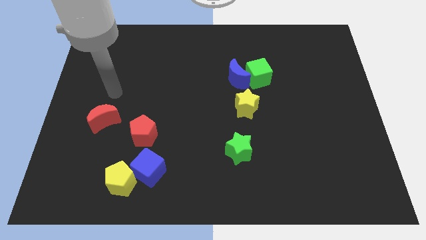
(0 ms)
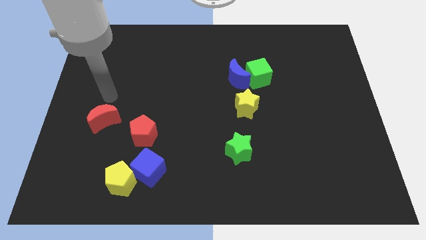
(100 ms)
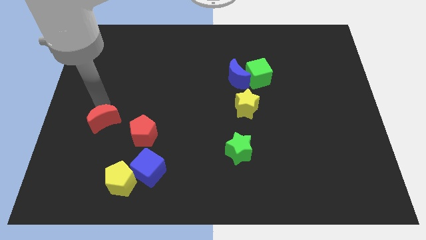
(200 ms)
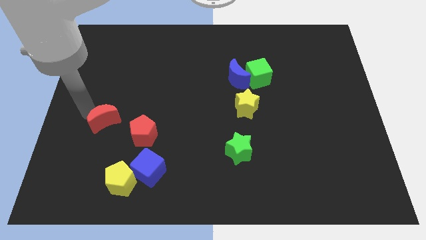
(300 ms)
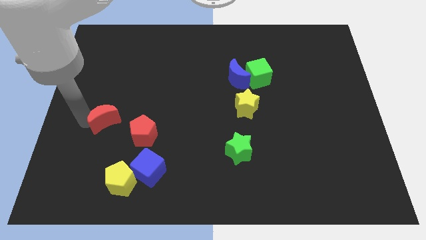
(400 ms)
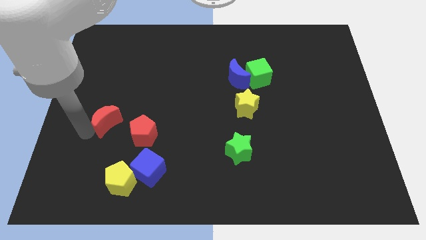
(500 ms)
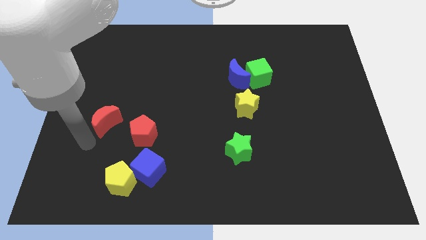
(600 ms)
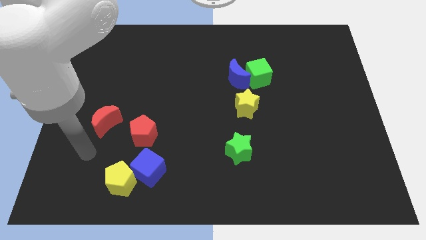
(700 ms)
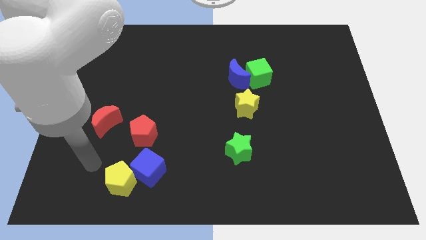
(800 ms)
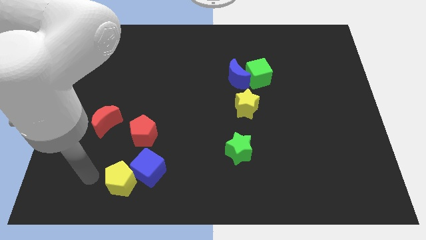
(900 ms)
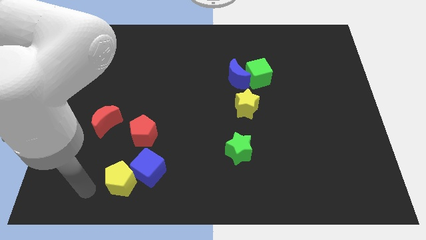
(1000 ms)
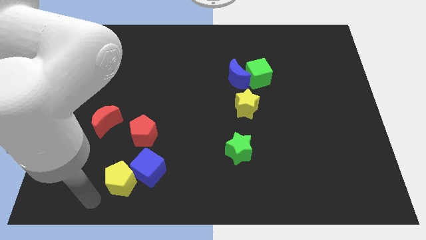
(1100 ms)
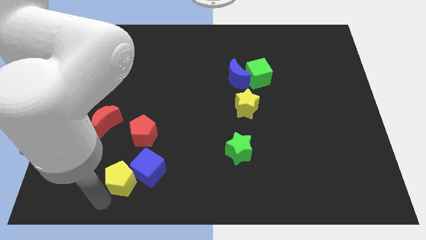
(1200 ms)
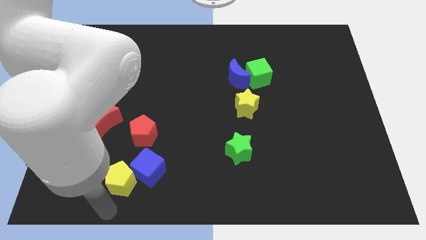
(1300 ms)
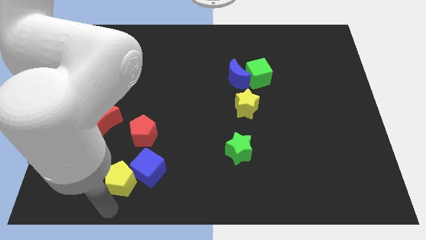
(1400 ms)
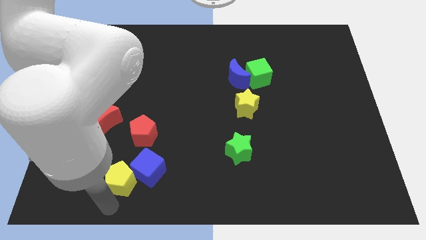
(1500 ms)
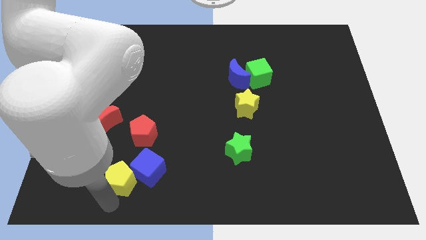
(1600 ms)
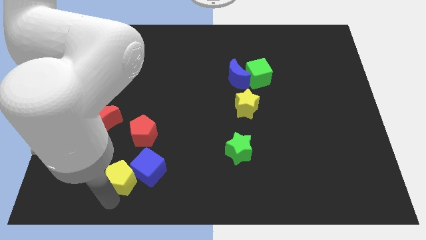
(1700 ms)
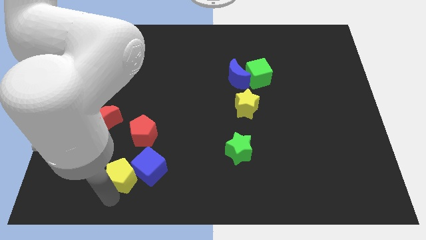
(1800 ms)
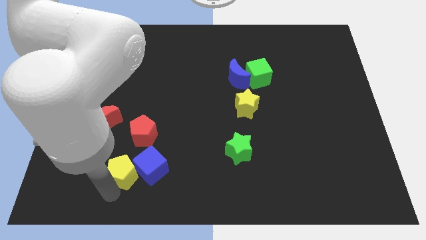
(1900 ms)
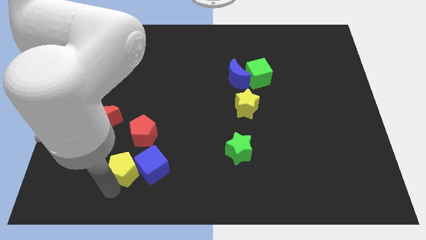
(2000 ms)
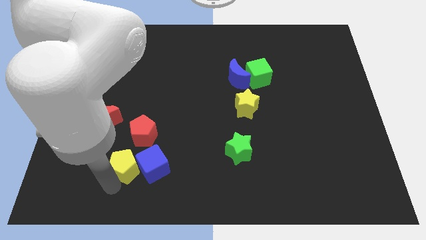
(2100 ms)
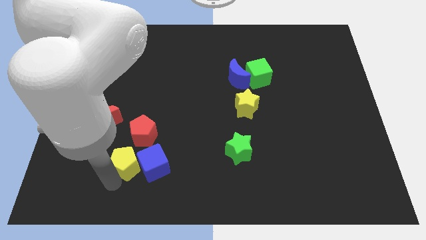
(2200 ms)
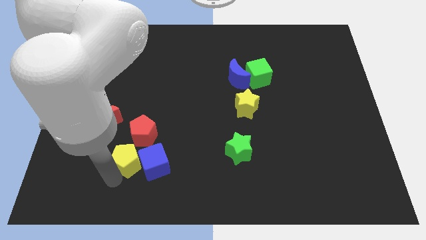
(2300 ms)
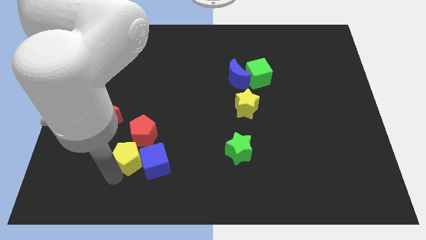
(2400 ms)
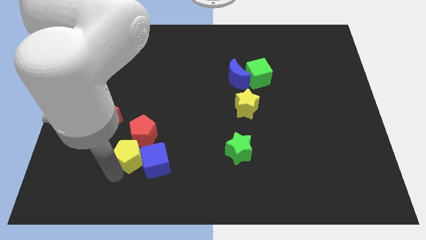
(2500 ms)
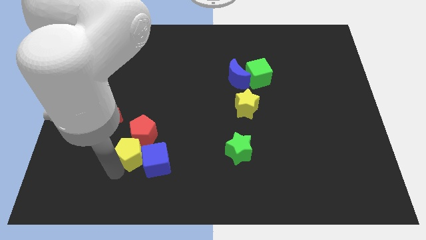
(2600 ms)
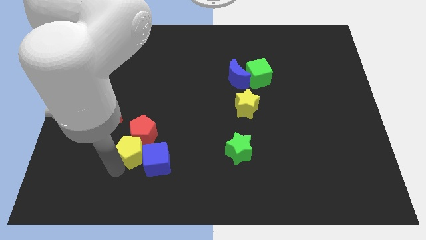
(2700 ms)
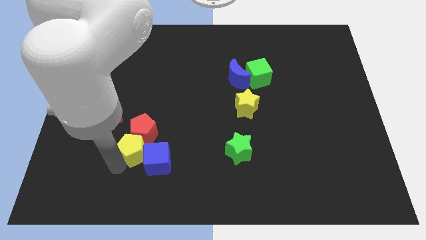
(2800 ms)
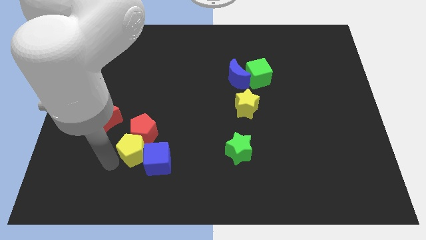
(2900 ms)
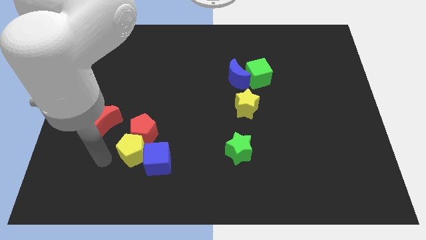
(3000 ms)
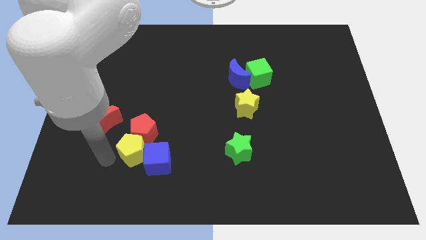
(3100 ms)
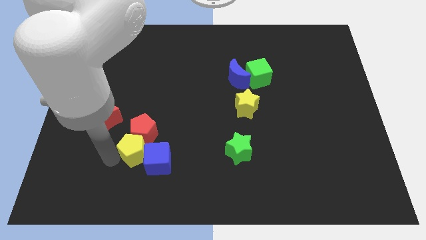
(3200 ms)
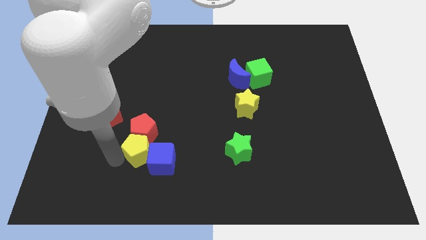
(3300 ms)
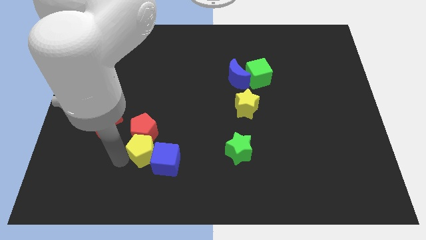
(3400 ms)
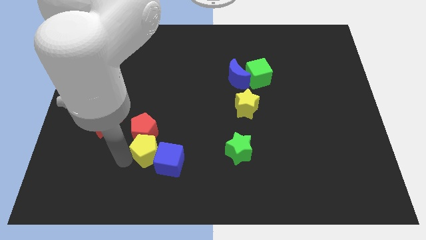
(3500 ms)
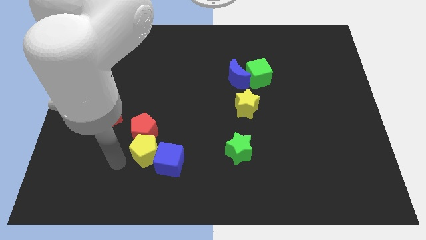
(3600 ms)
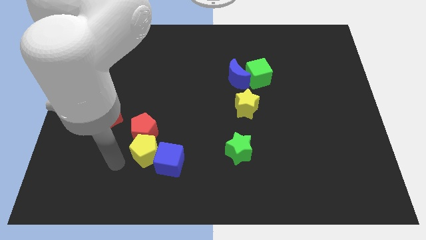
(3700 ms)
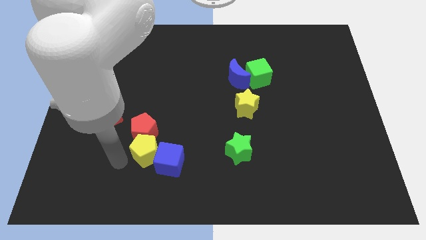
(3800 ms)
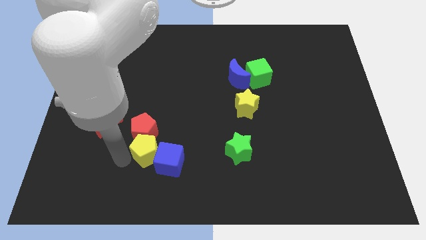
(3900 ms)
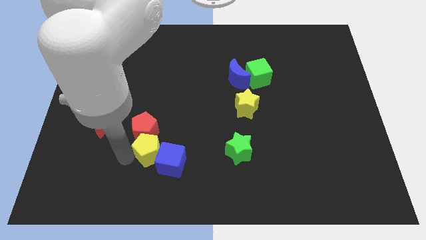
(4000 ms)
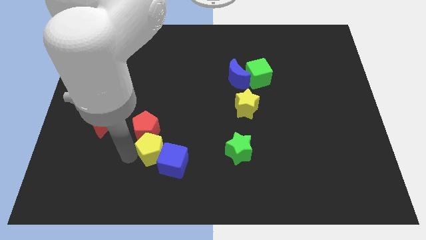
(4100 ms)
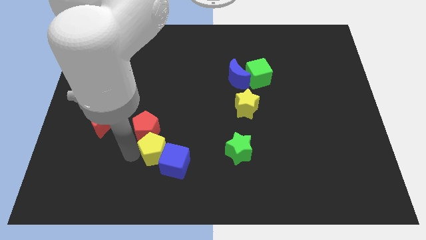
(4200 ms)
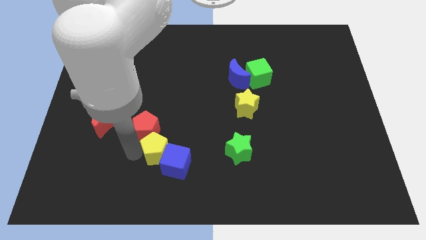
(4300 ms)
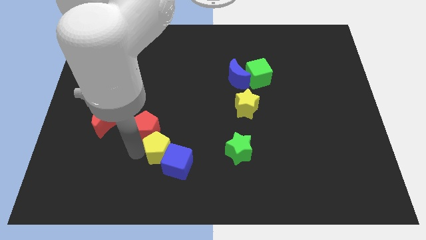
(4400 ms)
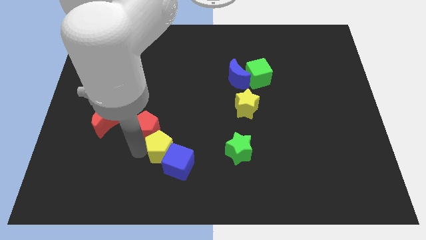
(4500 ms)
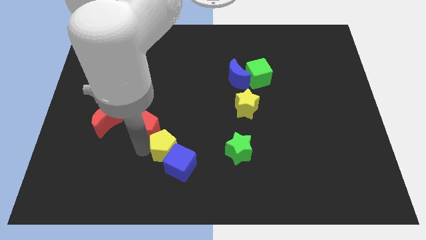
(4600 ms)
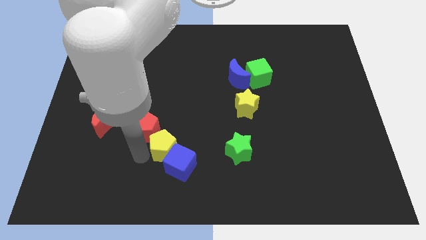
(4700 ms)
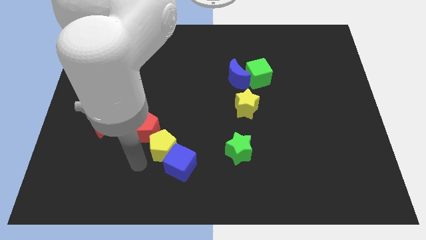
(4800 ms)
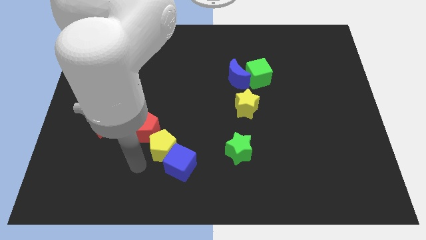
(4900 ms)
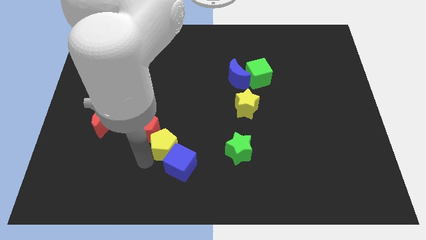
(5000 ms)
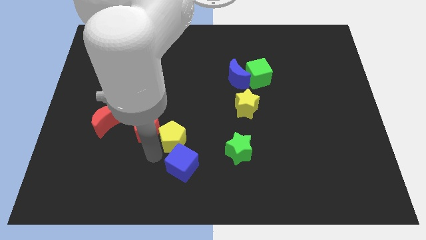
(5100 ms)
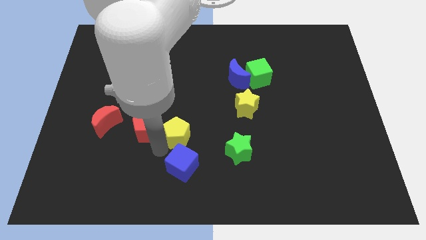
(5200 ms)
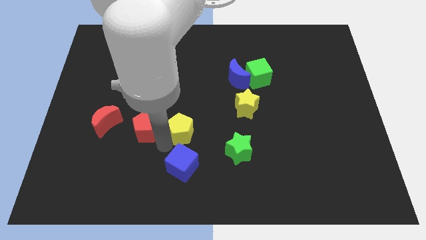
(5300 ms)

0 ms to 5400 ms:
push the yellow pentagon to the middle of the board

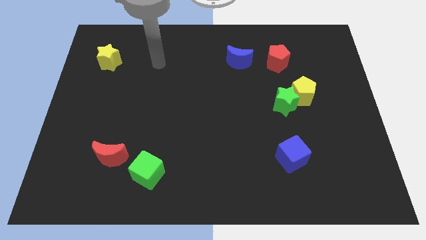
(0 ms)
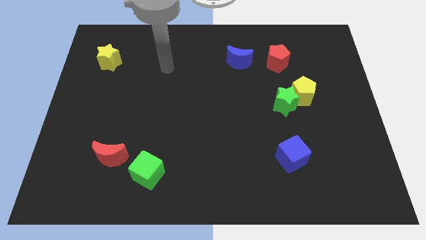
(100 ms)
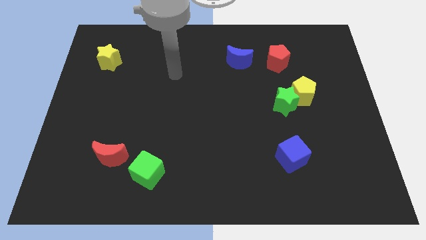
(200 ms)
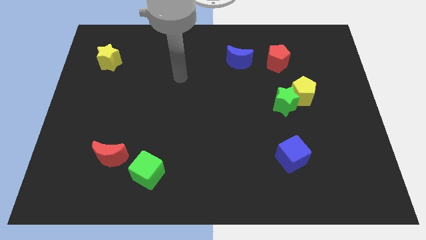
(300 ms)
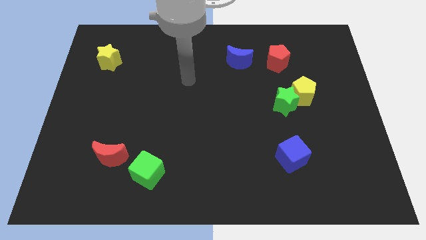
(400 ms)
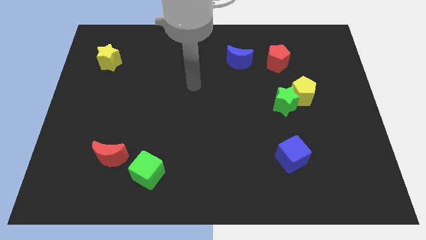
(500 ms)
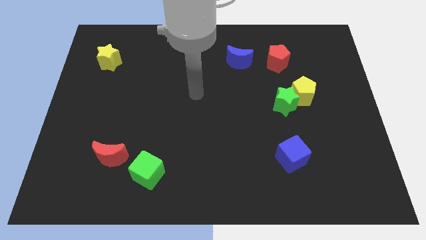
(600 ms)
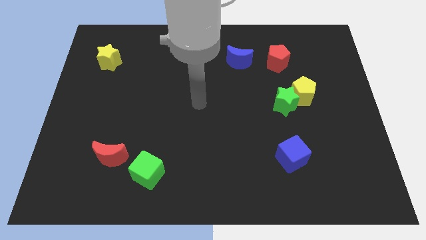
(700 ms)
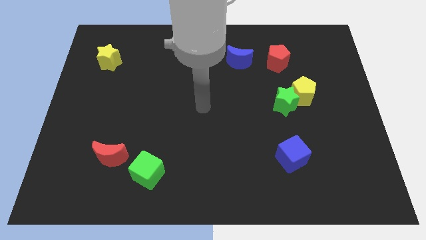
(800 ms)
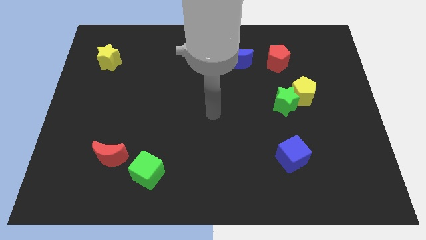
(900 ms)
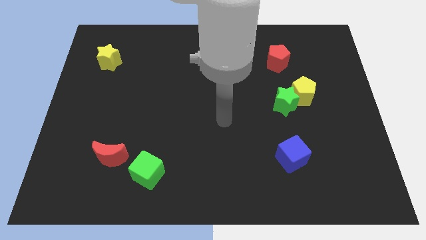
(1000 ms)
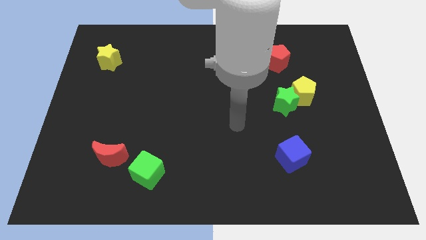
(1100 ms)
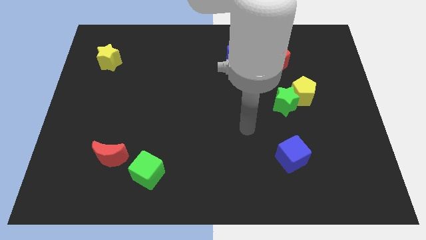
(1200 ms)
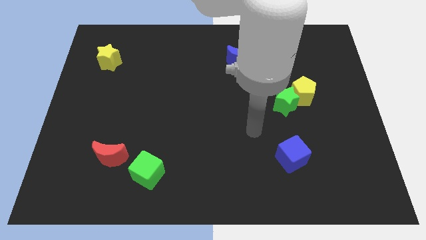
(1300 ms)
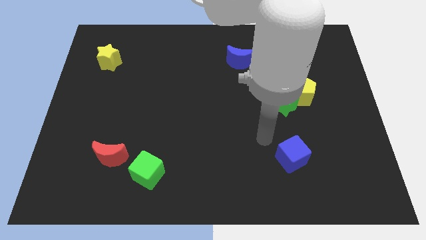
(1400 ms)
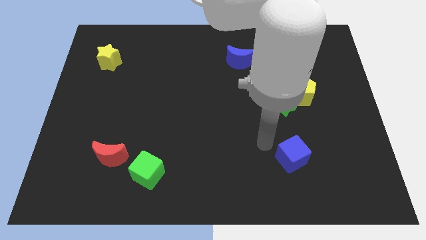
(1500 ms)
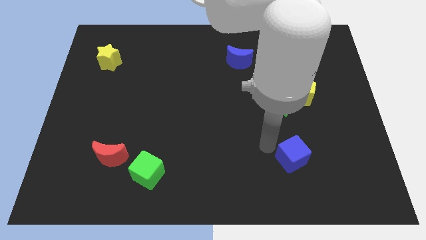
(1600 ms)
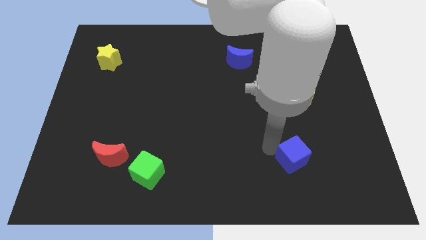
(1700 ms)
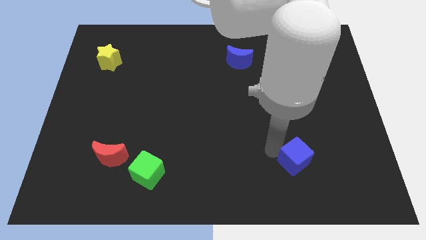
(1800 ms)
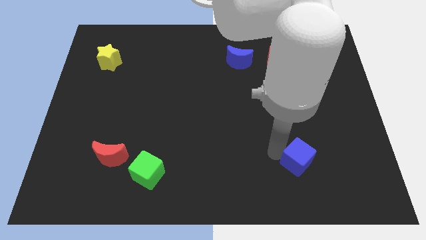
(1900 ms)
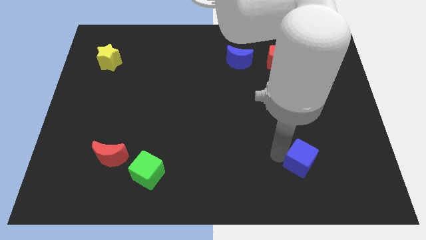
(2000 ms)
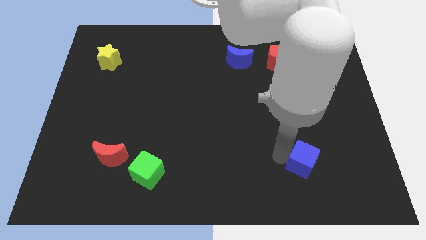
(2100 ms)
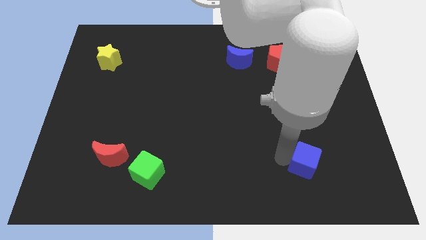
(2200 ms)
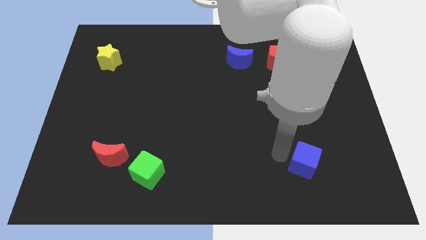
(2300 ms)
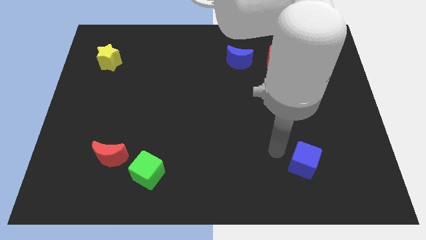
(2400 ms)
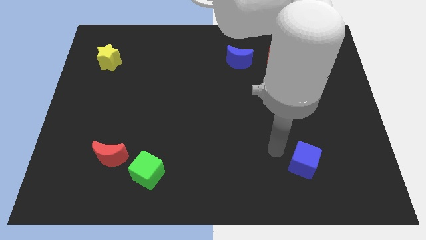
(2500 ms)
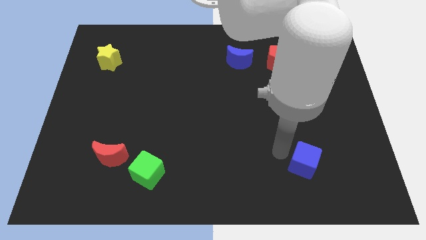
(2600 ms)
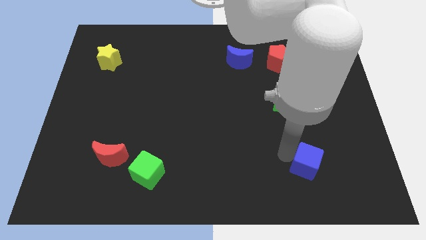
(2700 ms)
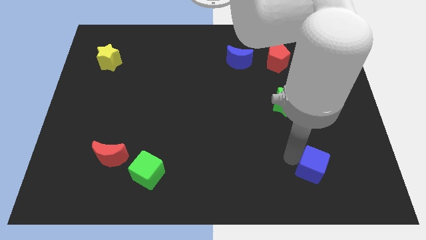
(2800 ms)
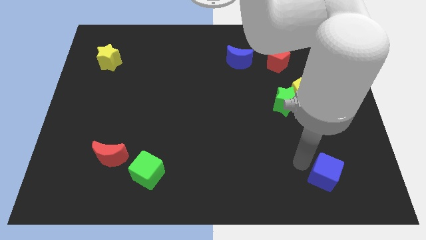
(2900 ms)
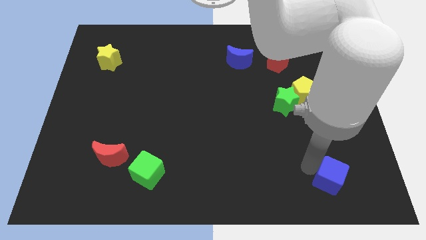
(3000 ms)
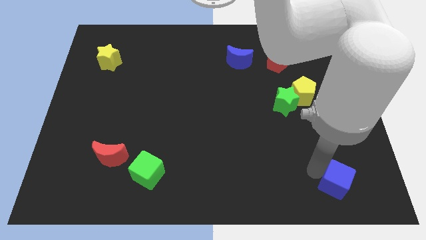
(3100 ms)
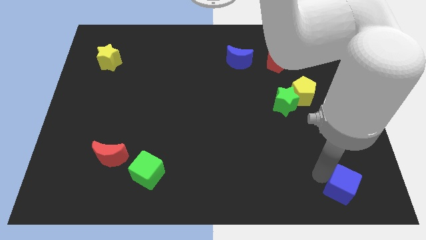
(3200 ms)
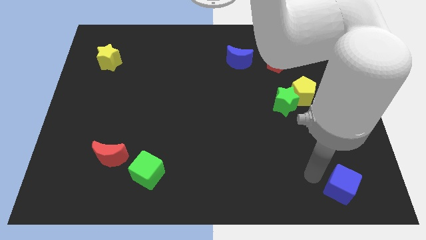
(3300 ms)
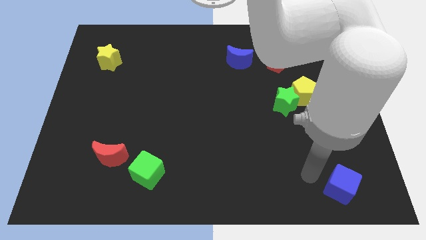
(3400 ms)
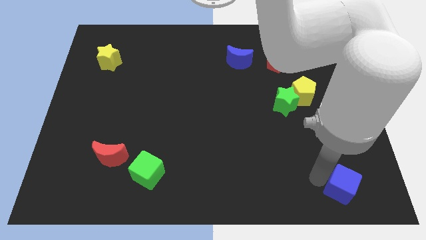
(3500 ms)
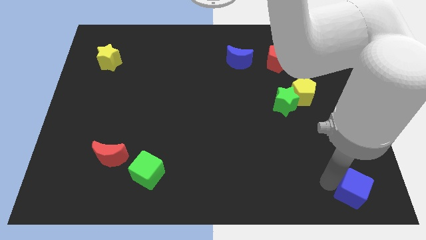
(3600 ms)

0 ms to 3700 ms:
put the blue cube to the bottom right
